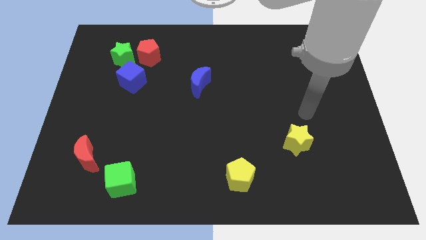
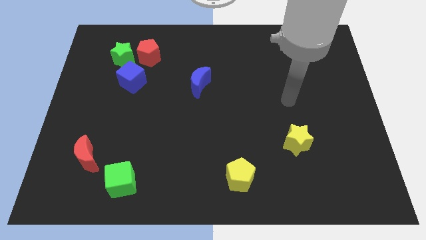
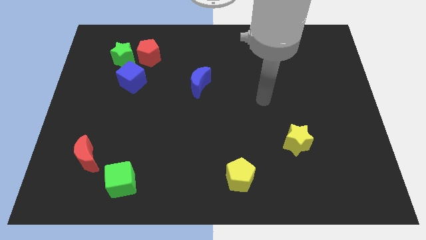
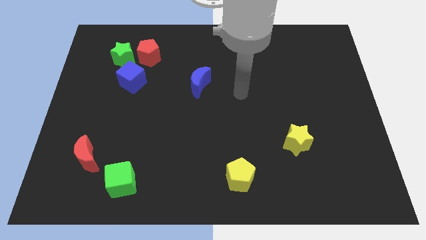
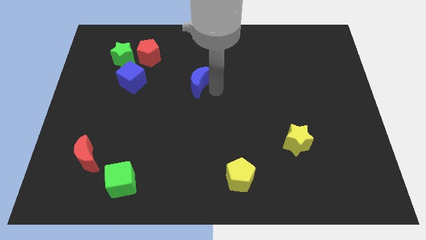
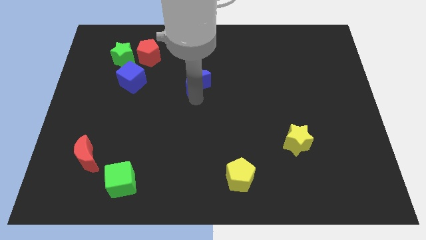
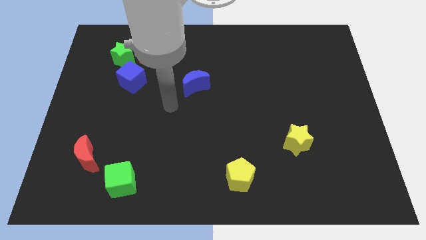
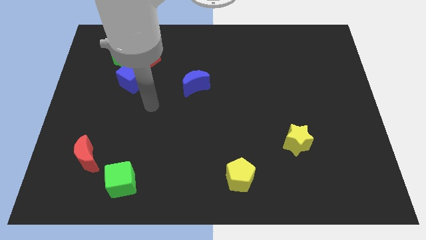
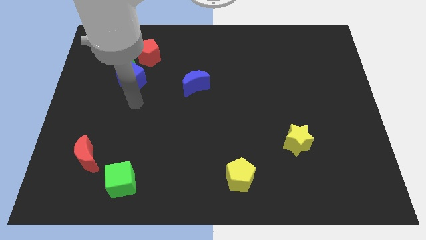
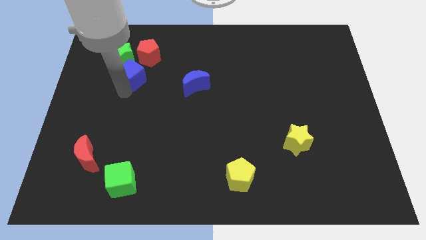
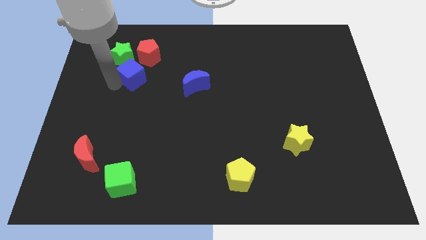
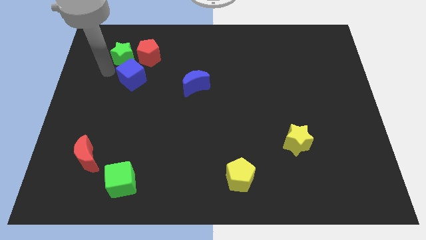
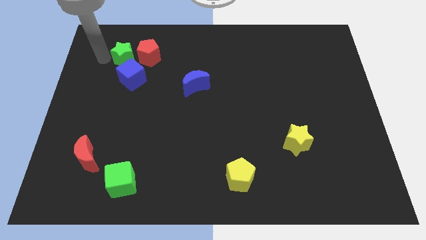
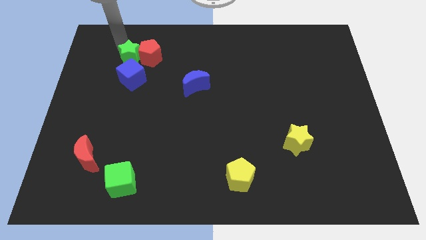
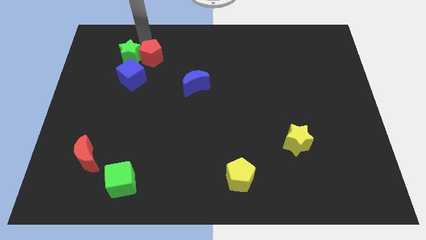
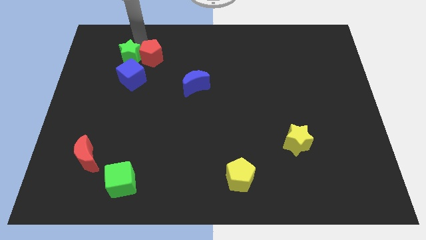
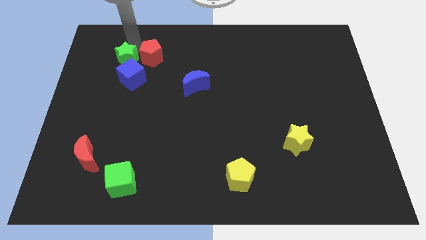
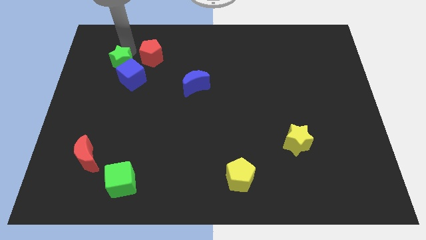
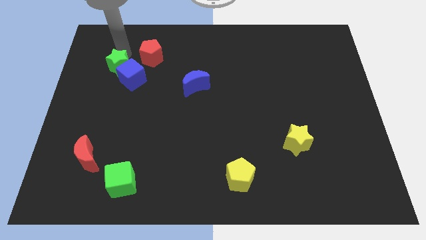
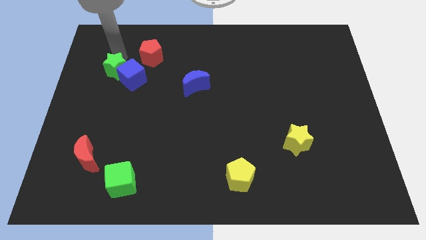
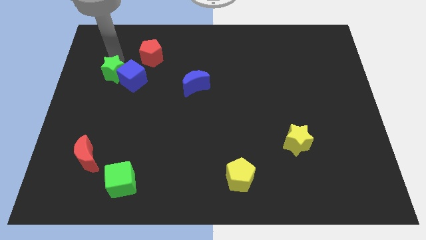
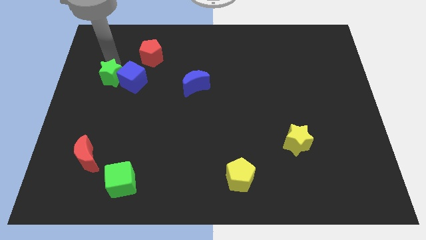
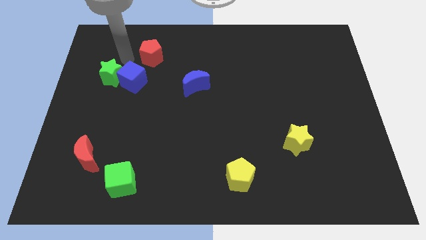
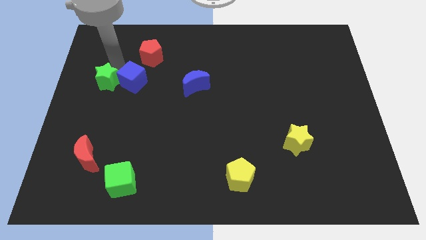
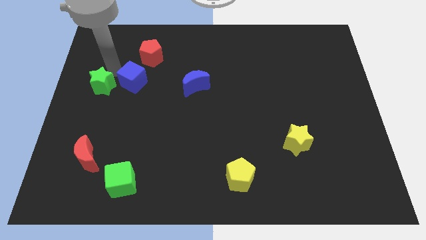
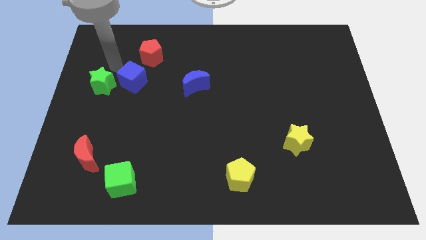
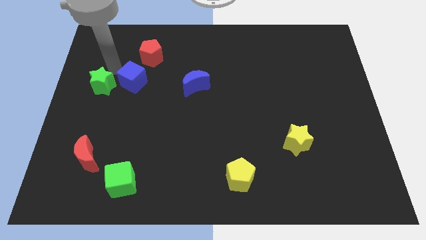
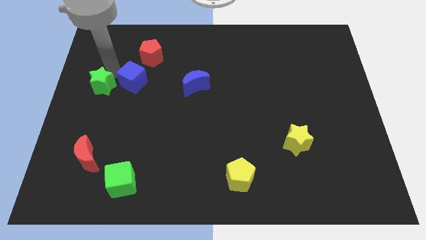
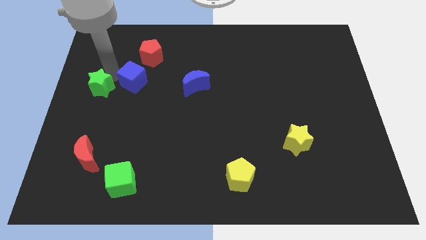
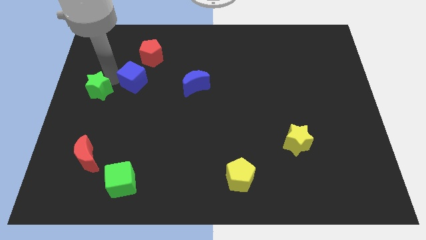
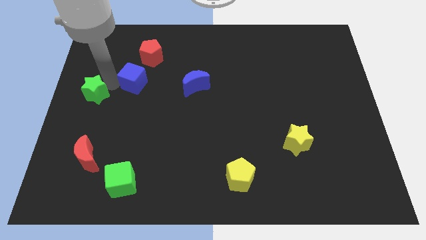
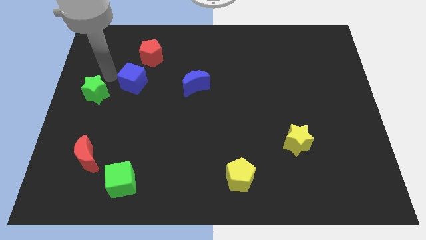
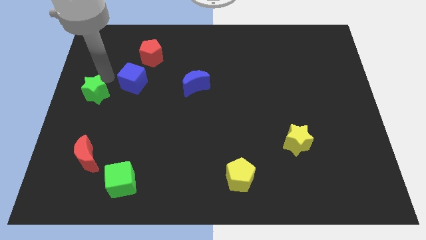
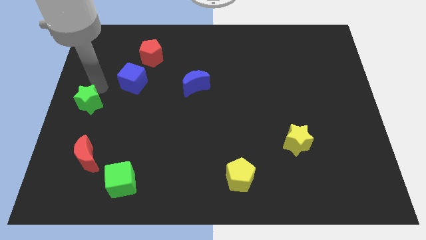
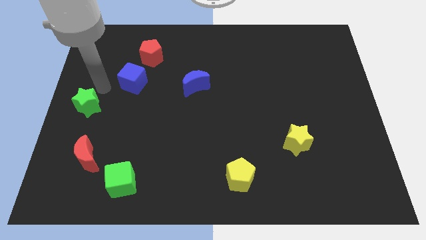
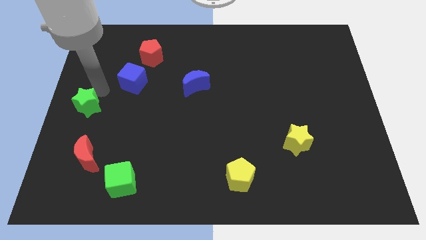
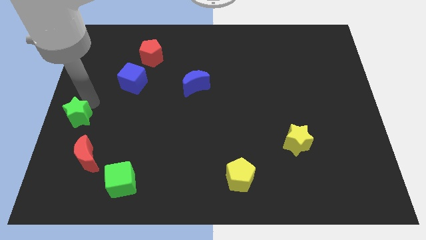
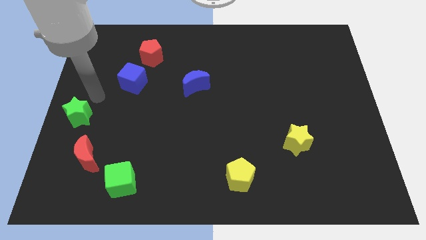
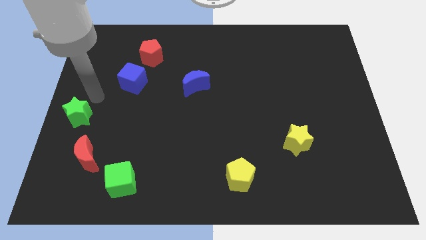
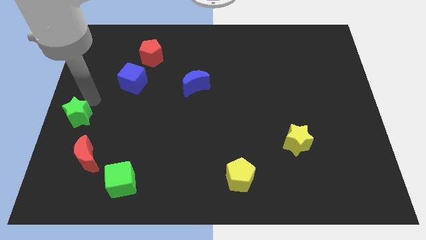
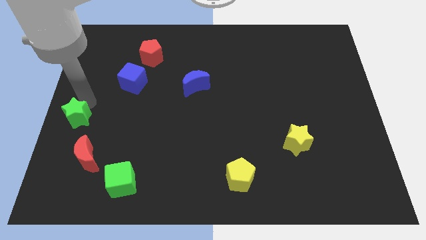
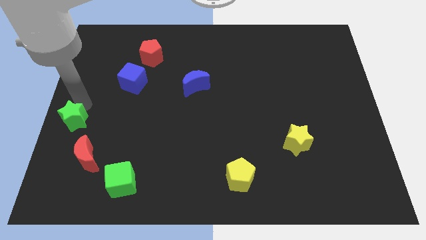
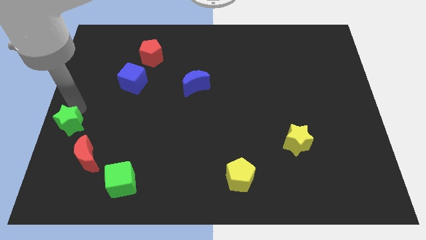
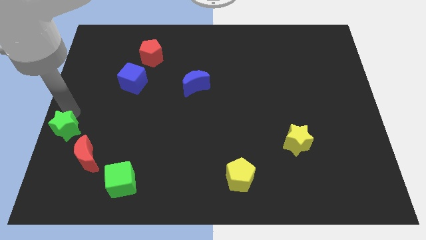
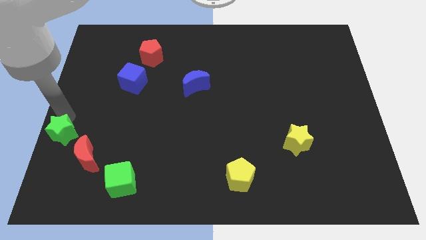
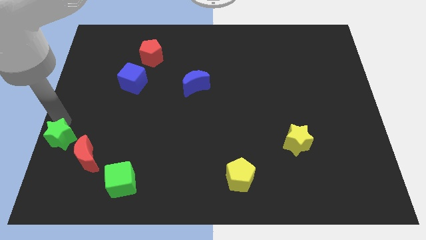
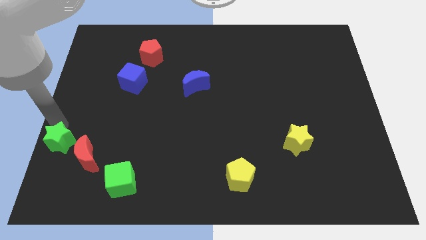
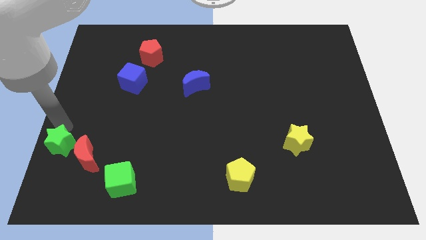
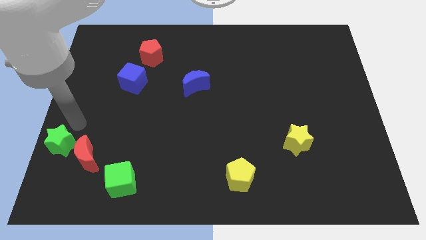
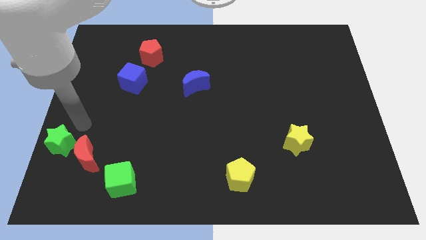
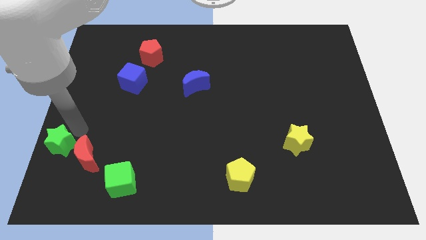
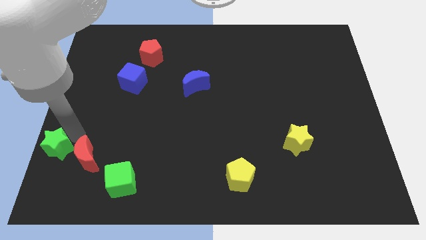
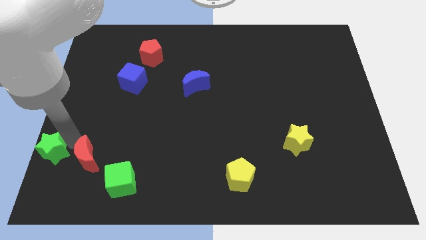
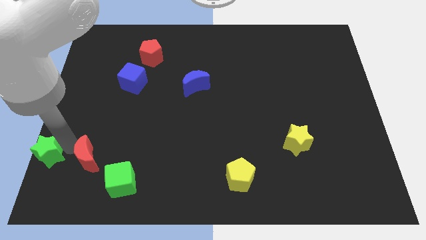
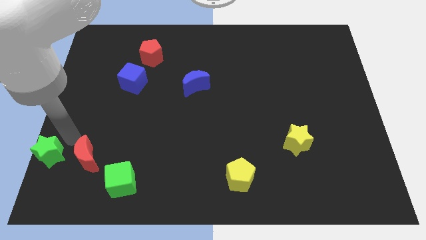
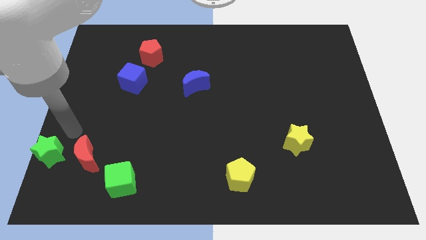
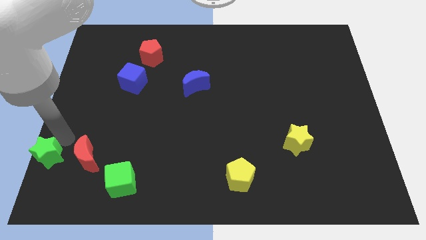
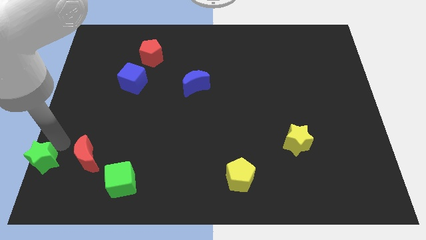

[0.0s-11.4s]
put the green star to the lower left corner
